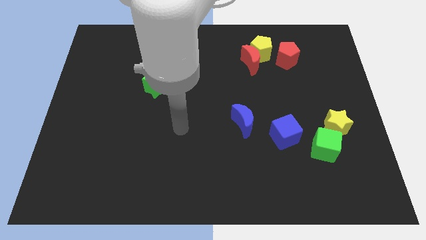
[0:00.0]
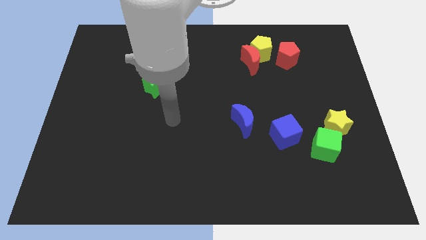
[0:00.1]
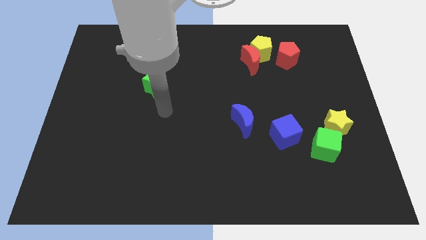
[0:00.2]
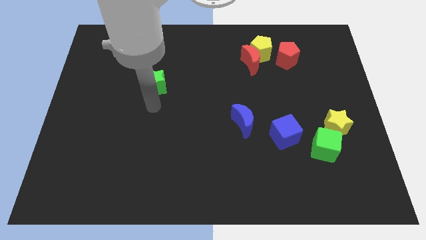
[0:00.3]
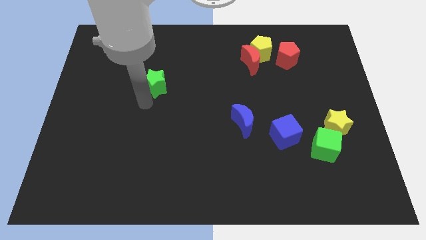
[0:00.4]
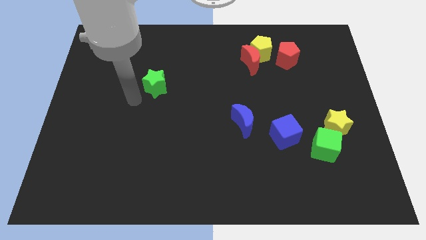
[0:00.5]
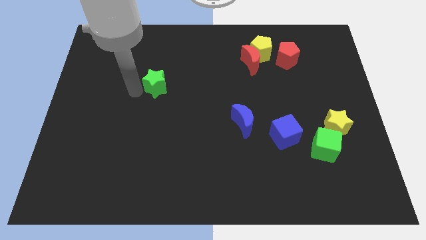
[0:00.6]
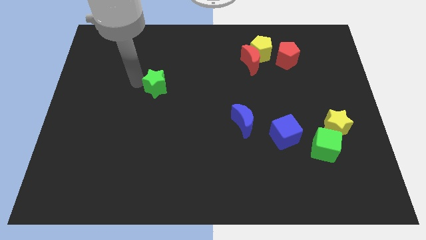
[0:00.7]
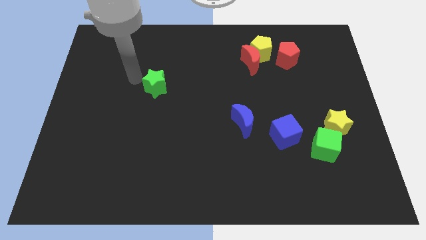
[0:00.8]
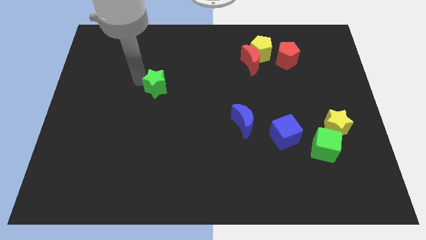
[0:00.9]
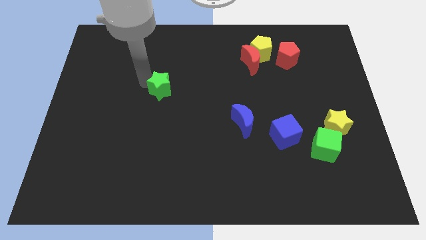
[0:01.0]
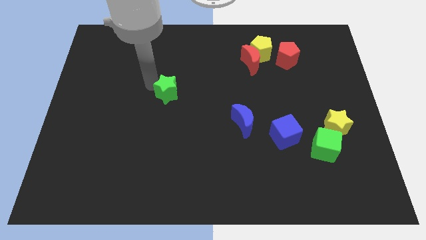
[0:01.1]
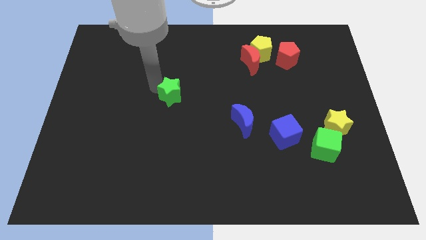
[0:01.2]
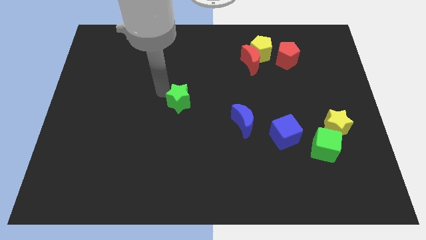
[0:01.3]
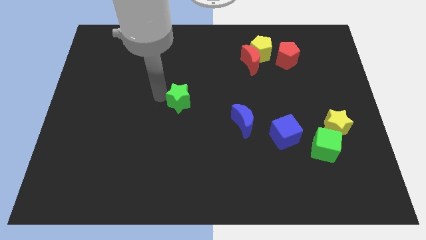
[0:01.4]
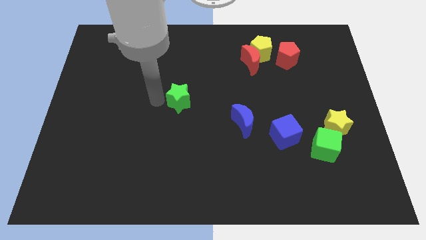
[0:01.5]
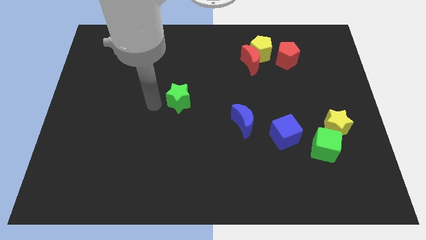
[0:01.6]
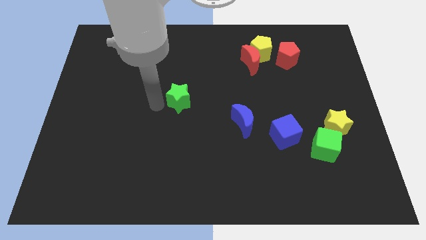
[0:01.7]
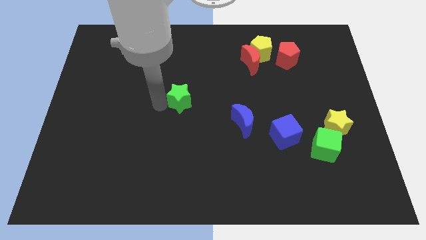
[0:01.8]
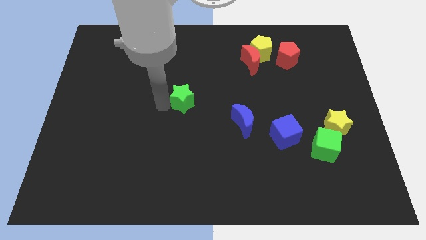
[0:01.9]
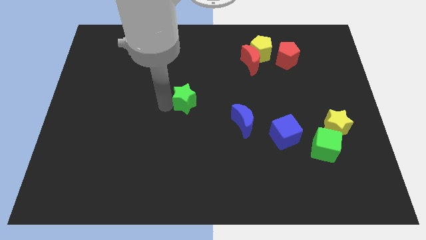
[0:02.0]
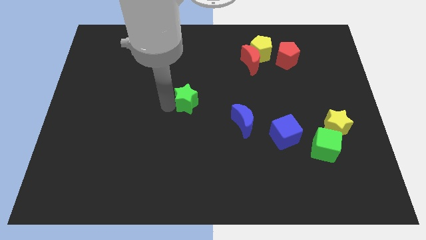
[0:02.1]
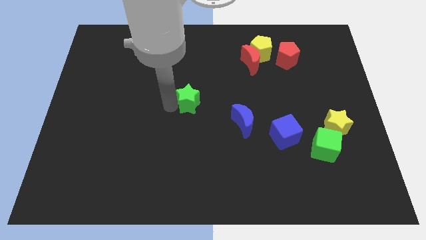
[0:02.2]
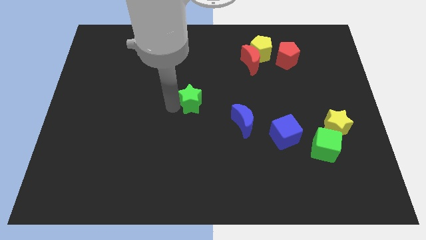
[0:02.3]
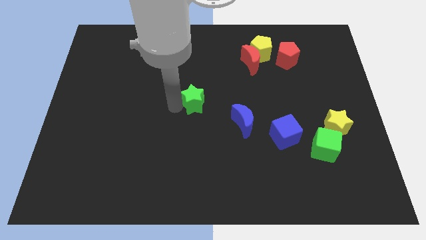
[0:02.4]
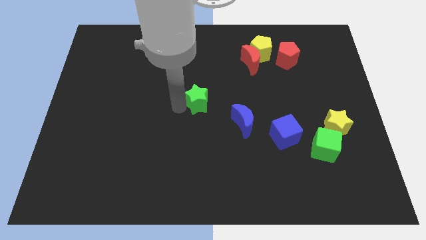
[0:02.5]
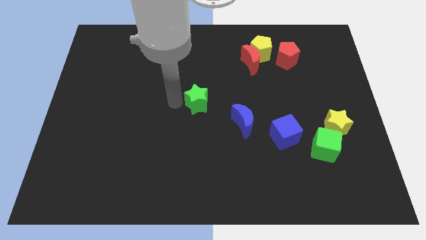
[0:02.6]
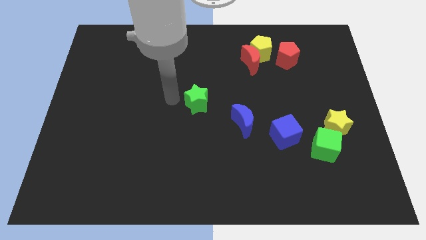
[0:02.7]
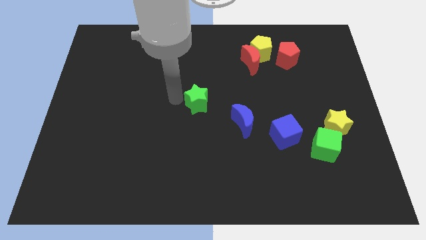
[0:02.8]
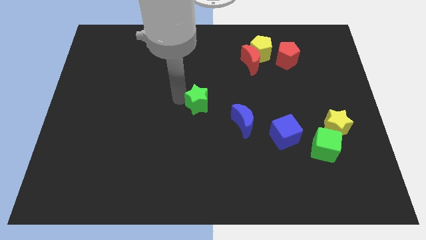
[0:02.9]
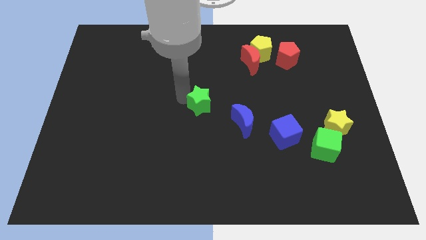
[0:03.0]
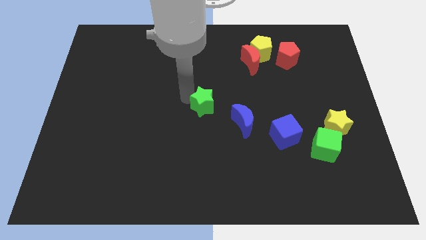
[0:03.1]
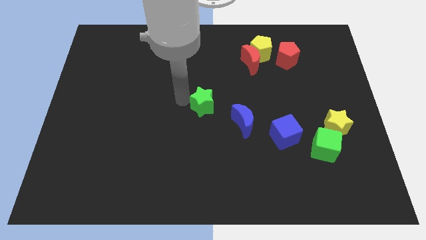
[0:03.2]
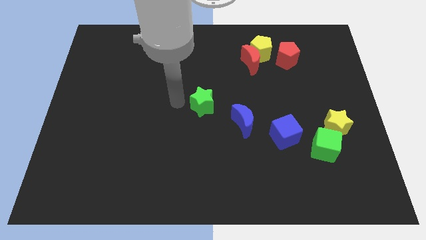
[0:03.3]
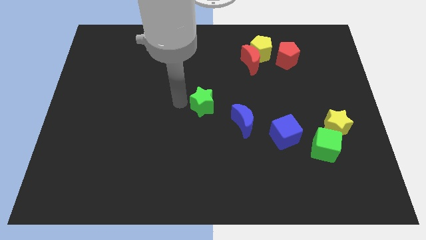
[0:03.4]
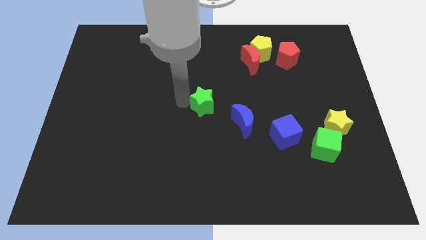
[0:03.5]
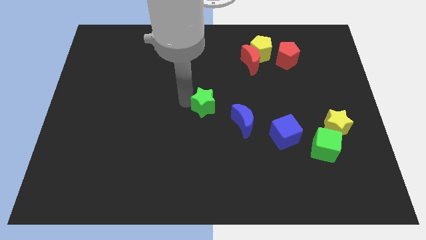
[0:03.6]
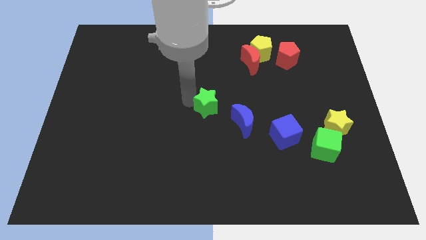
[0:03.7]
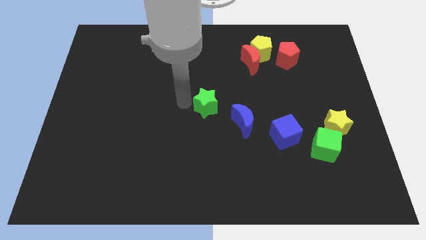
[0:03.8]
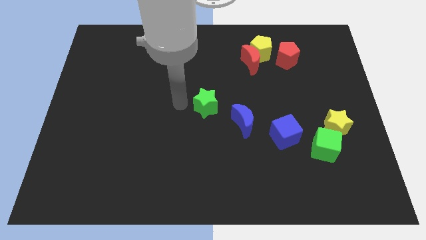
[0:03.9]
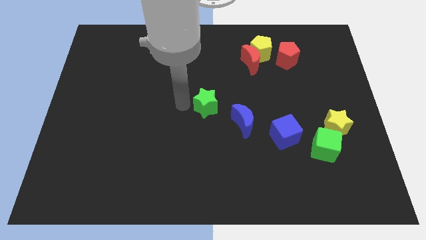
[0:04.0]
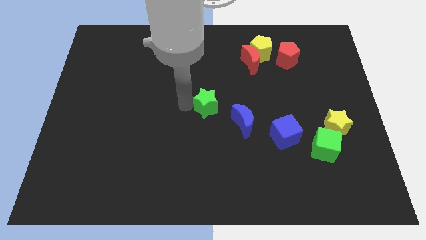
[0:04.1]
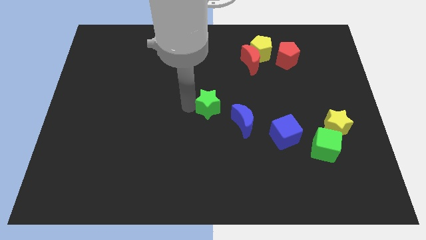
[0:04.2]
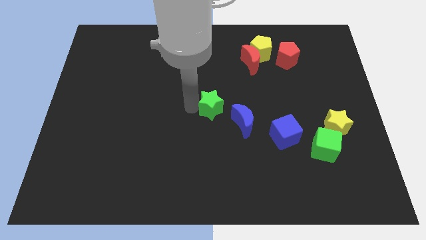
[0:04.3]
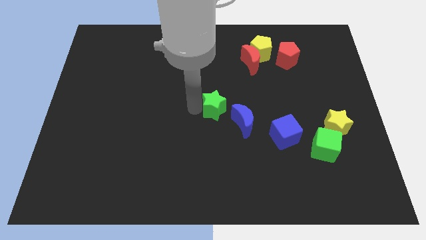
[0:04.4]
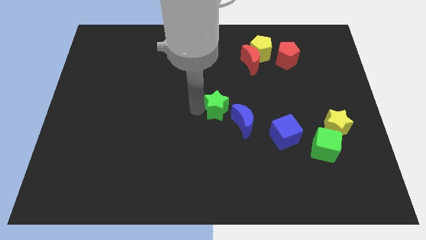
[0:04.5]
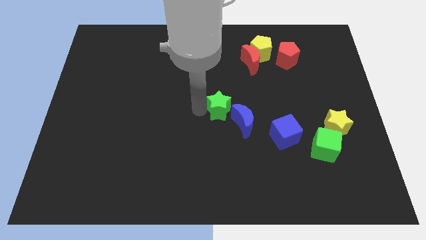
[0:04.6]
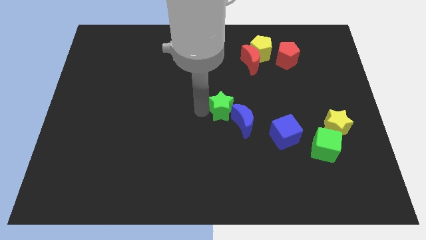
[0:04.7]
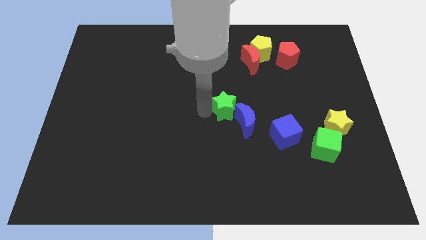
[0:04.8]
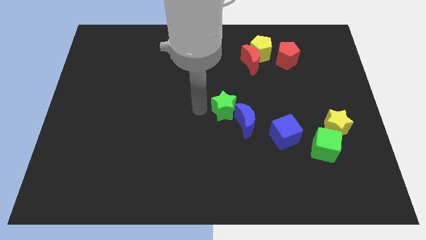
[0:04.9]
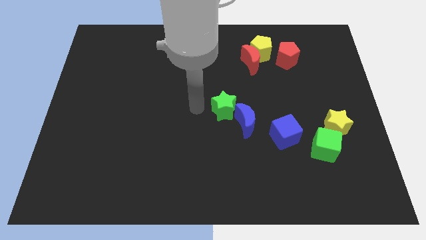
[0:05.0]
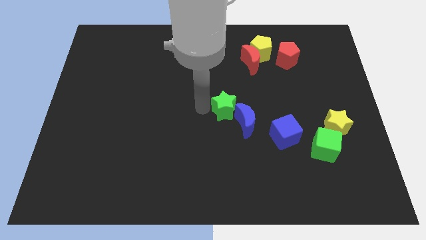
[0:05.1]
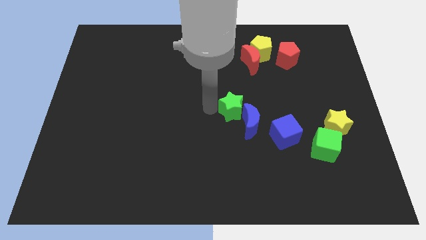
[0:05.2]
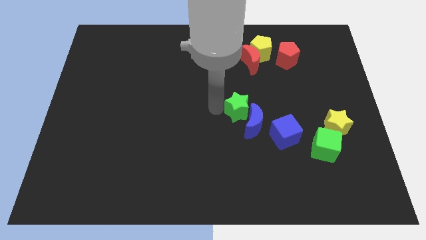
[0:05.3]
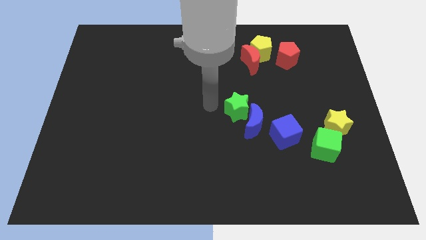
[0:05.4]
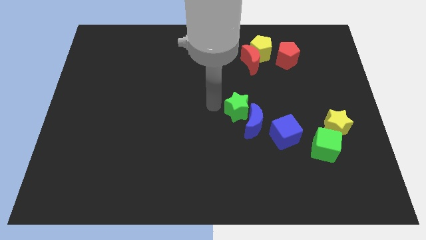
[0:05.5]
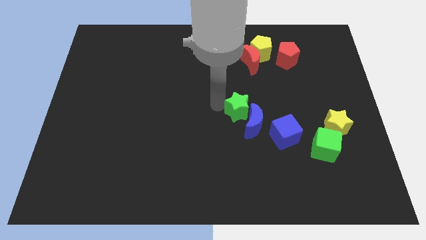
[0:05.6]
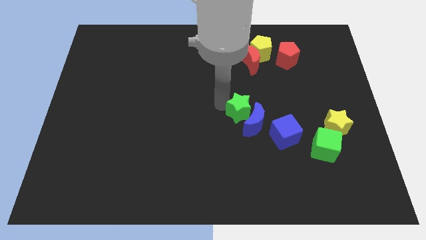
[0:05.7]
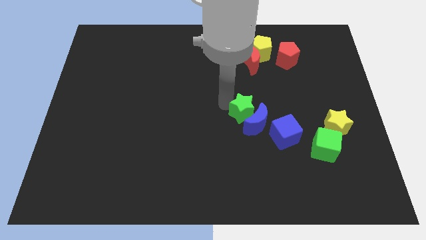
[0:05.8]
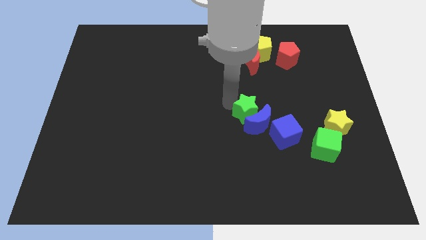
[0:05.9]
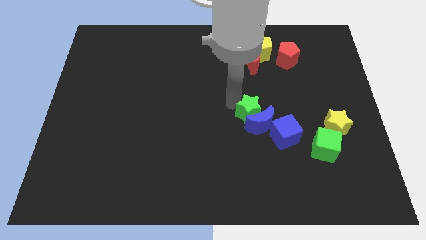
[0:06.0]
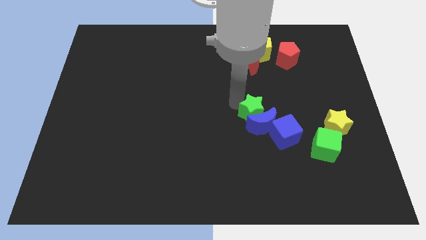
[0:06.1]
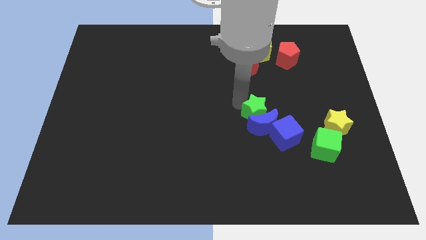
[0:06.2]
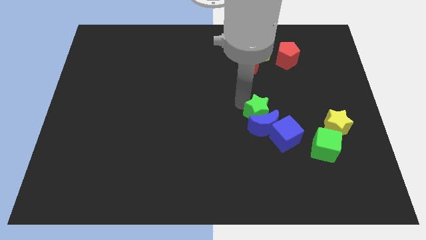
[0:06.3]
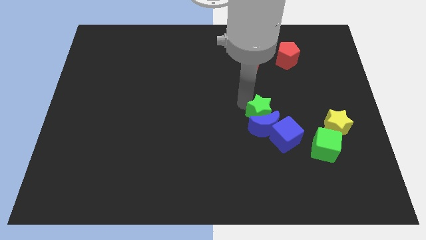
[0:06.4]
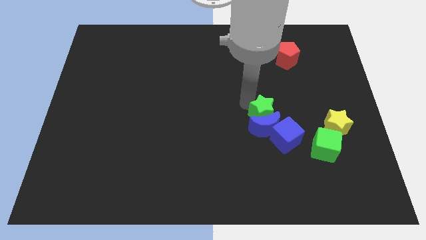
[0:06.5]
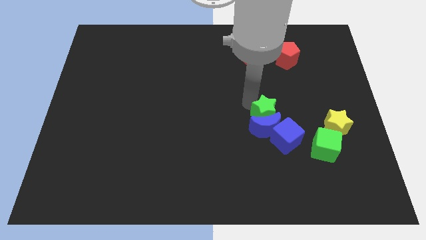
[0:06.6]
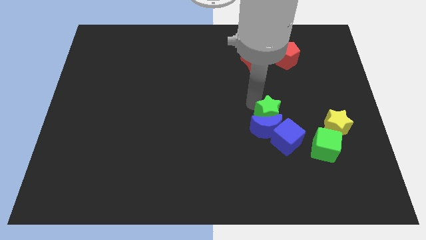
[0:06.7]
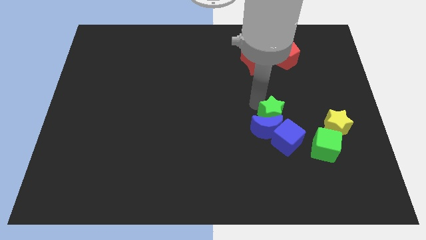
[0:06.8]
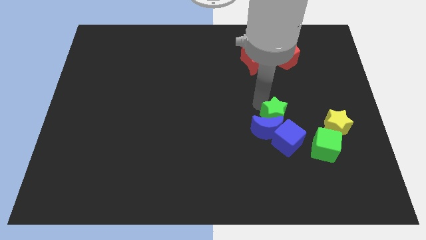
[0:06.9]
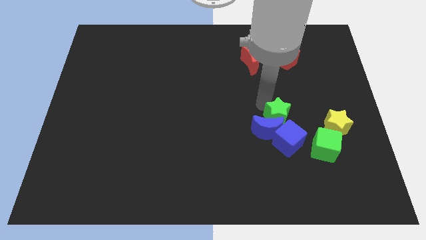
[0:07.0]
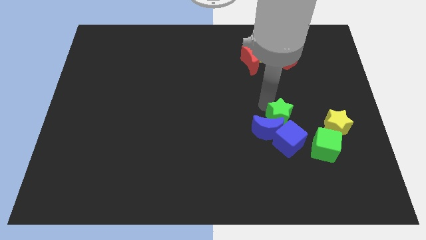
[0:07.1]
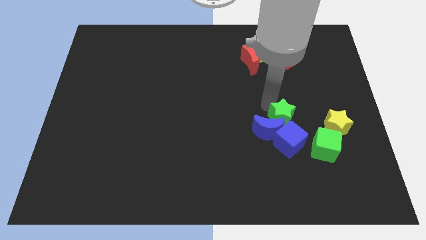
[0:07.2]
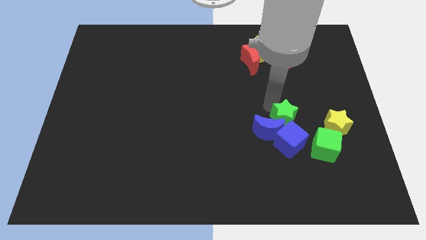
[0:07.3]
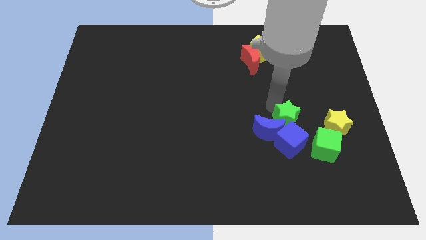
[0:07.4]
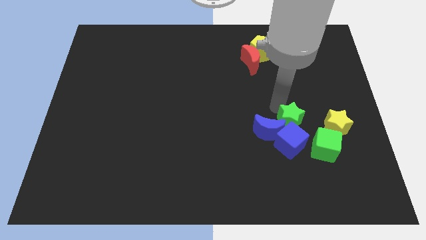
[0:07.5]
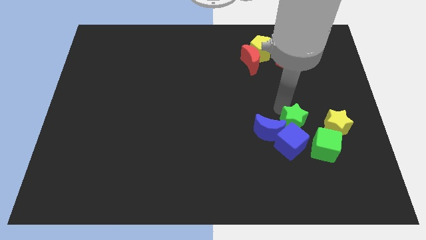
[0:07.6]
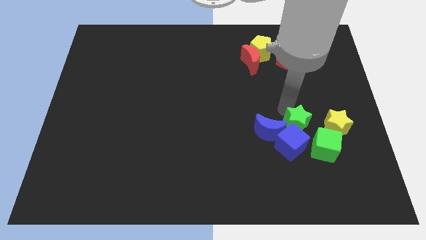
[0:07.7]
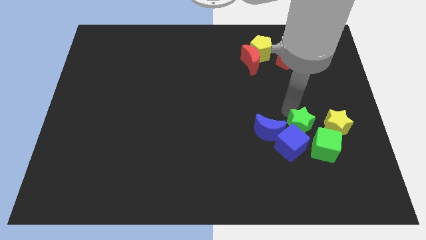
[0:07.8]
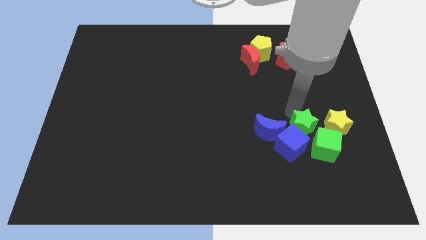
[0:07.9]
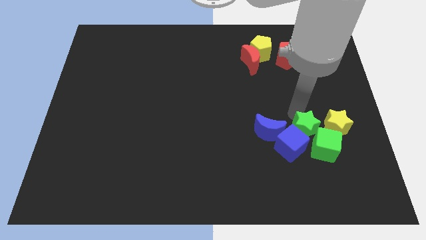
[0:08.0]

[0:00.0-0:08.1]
slide the green star to the green cube
